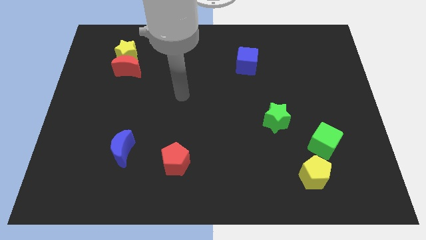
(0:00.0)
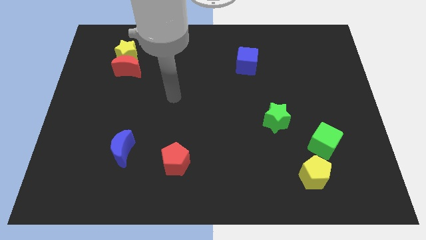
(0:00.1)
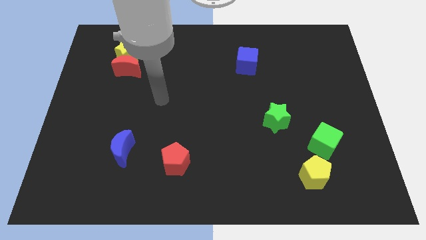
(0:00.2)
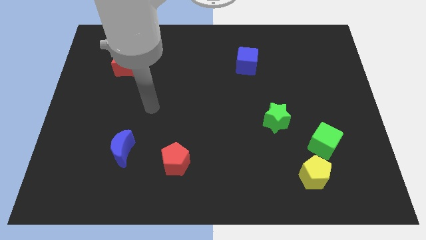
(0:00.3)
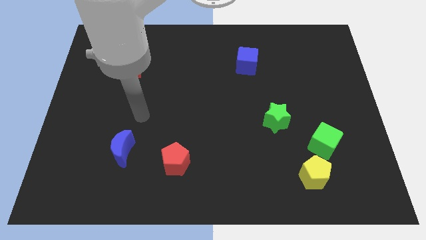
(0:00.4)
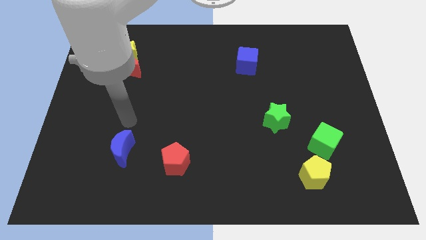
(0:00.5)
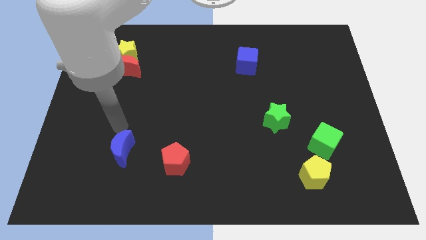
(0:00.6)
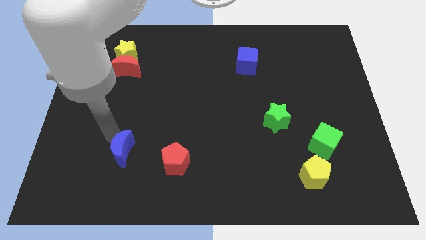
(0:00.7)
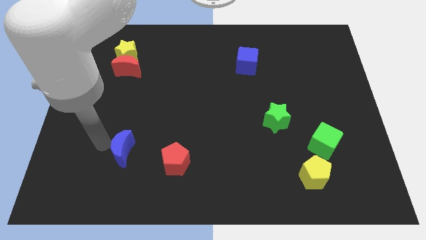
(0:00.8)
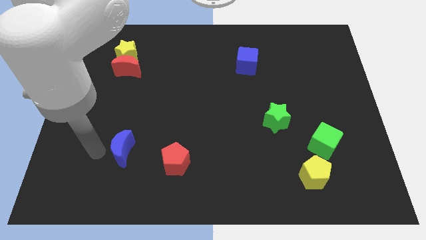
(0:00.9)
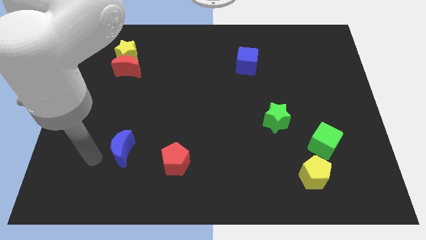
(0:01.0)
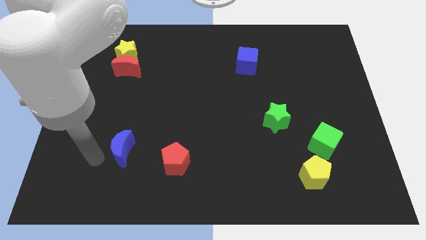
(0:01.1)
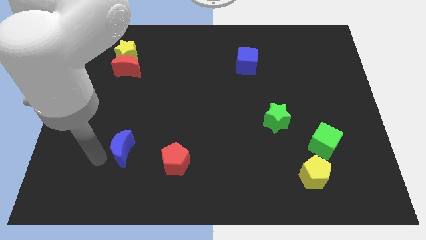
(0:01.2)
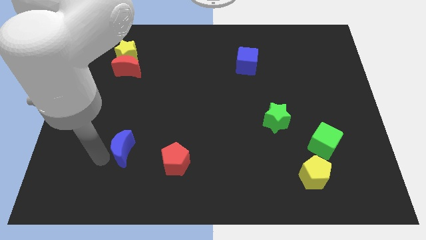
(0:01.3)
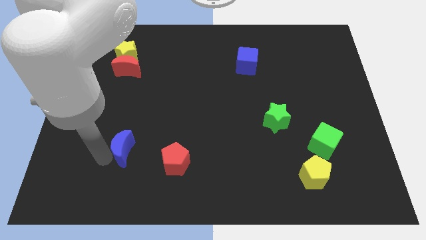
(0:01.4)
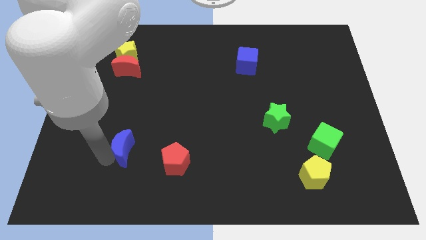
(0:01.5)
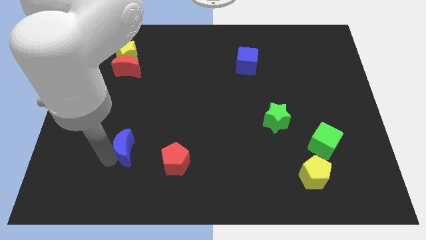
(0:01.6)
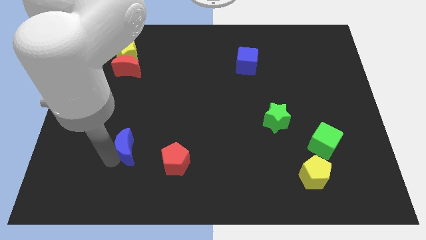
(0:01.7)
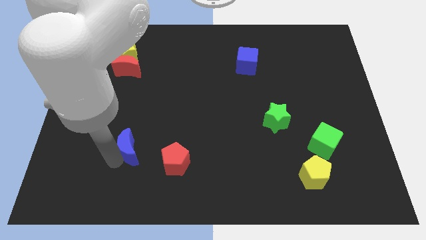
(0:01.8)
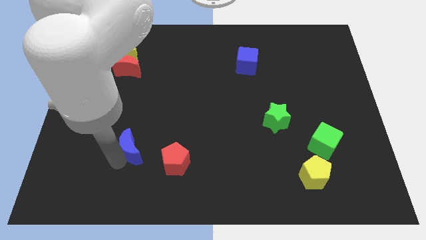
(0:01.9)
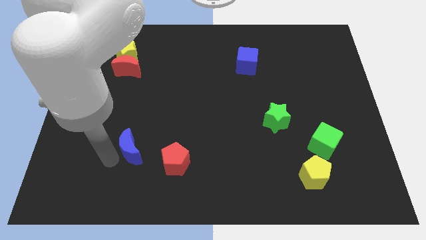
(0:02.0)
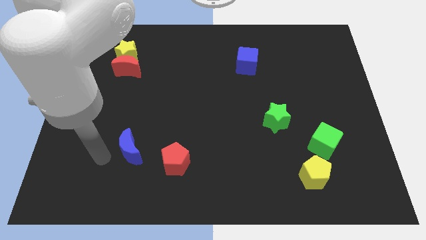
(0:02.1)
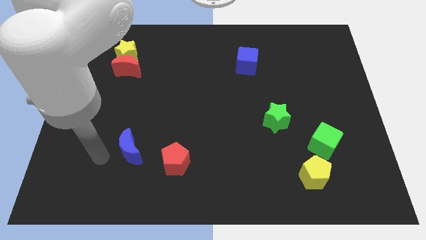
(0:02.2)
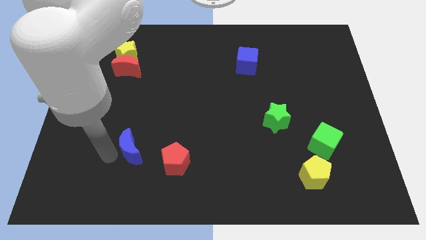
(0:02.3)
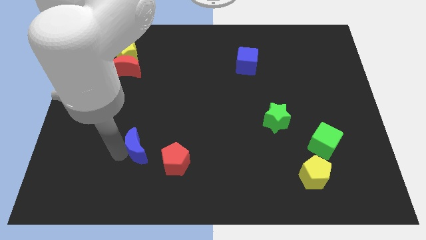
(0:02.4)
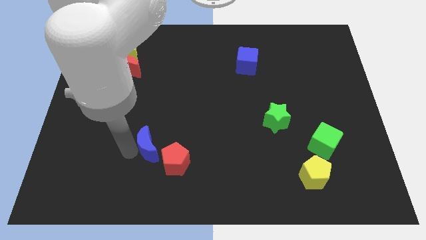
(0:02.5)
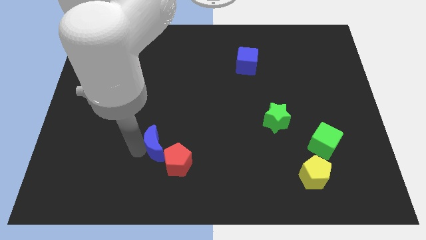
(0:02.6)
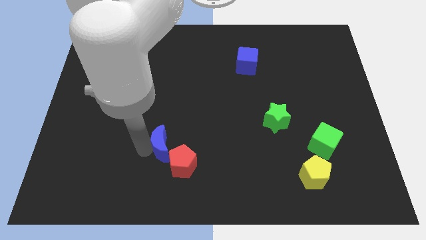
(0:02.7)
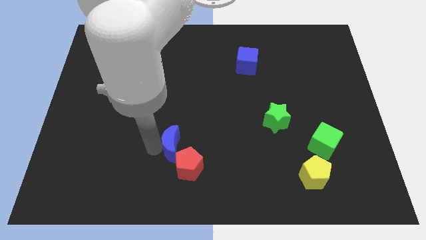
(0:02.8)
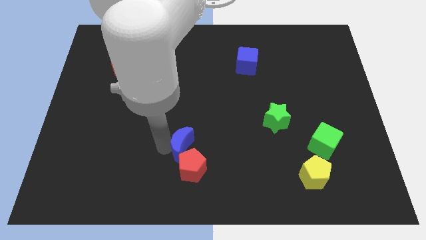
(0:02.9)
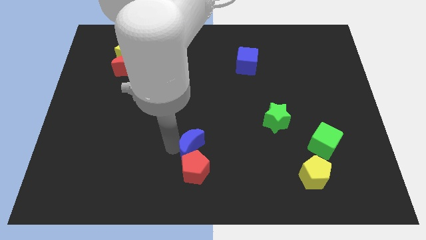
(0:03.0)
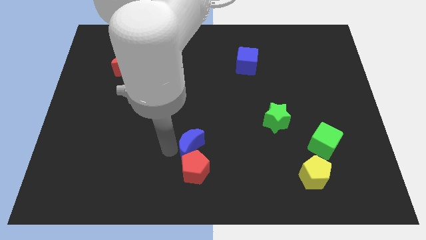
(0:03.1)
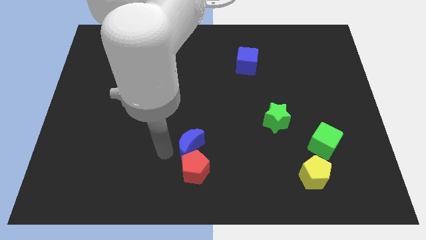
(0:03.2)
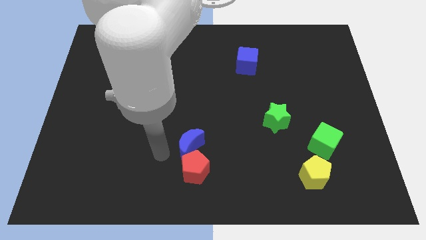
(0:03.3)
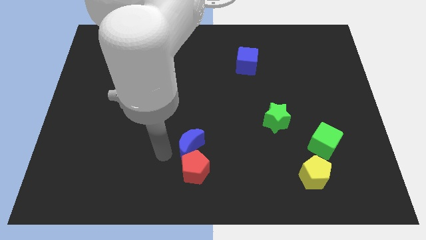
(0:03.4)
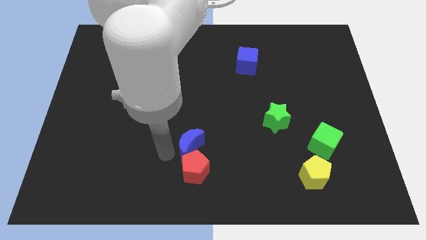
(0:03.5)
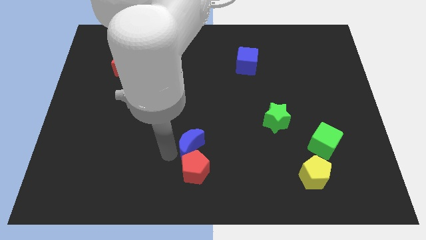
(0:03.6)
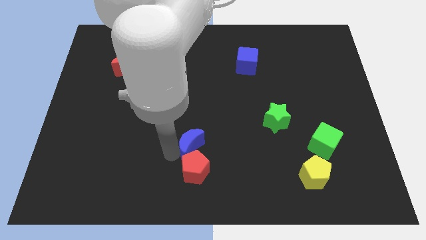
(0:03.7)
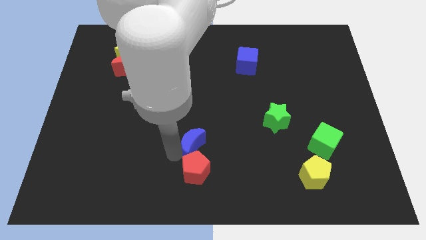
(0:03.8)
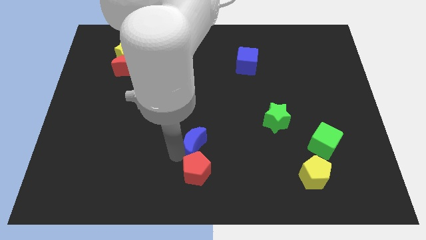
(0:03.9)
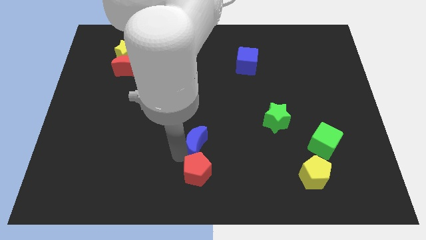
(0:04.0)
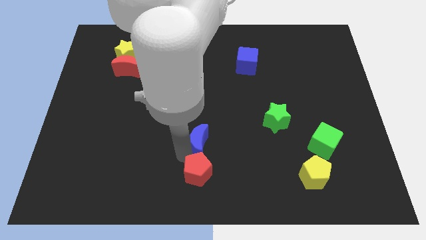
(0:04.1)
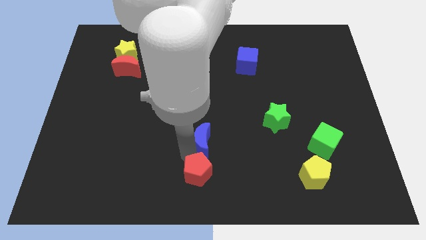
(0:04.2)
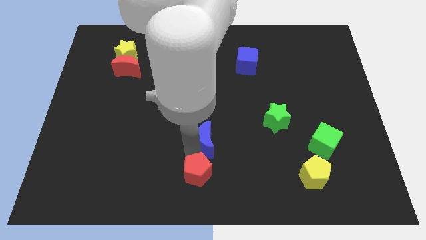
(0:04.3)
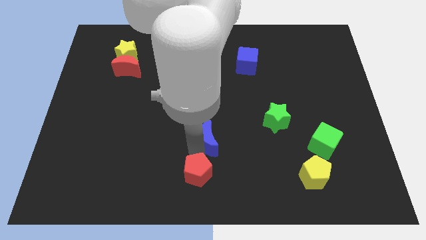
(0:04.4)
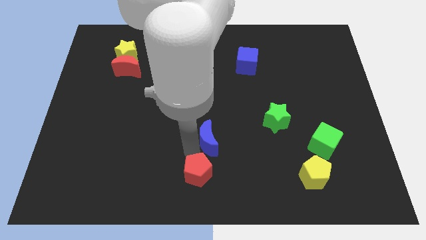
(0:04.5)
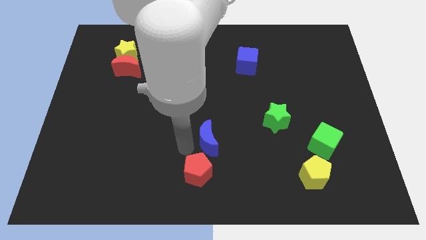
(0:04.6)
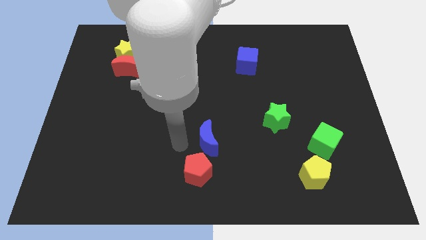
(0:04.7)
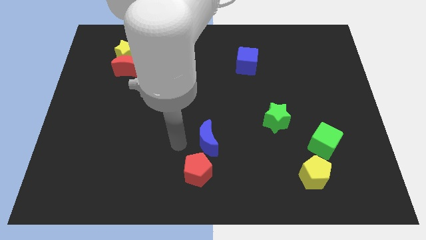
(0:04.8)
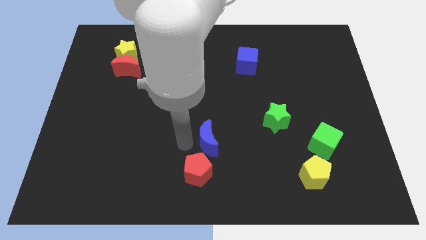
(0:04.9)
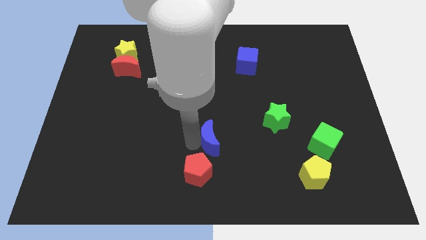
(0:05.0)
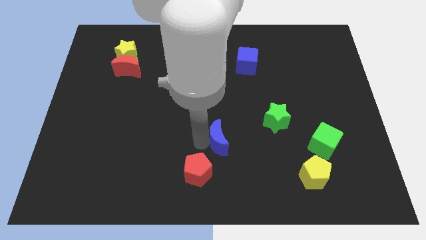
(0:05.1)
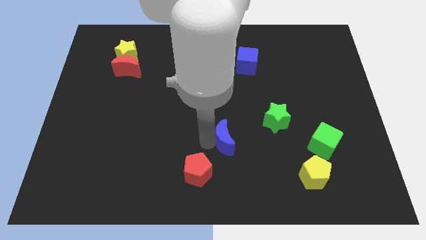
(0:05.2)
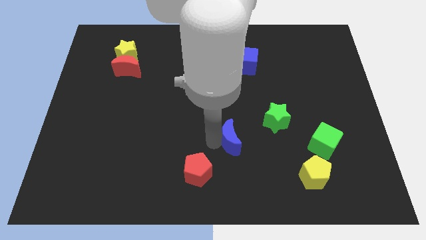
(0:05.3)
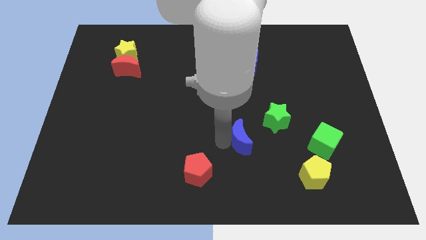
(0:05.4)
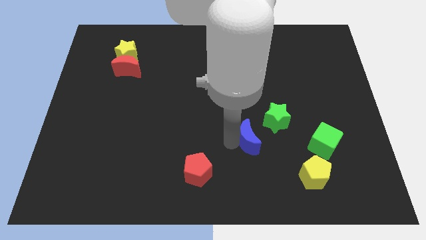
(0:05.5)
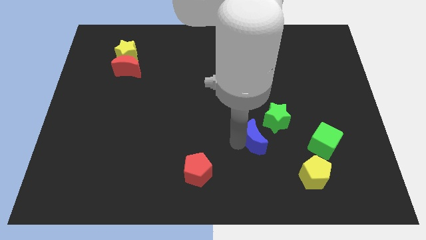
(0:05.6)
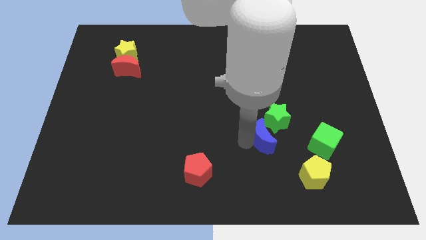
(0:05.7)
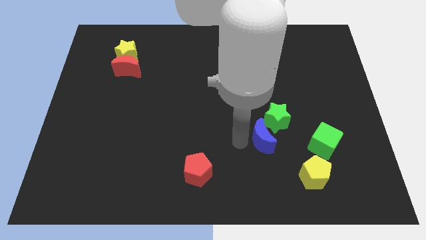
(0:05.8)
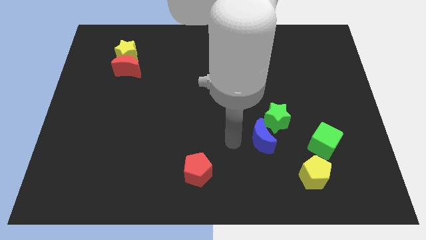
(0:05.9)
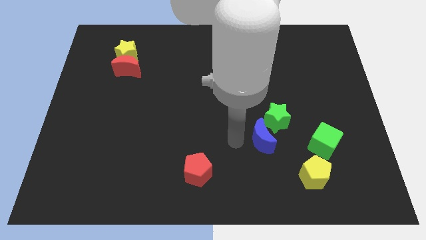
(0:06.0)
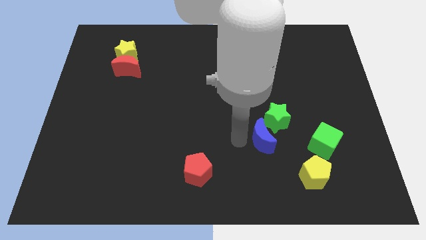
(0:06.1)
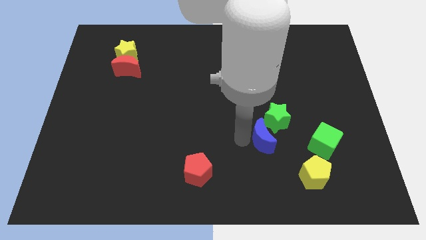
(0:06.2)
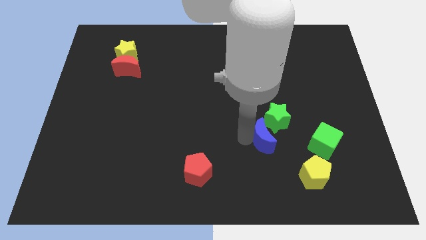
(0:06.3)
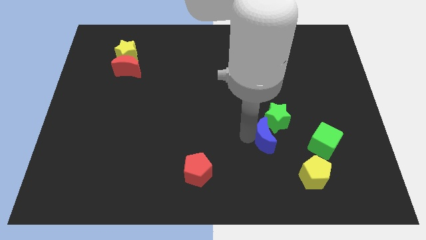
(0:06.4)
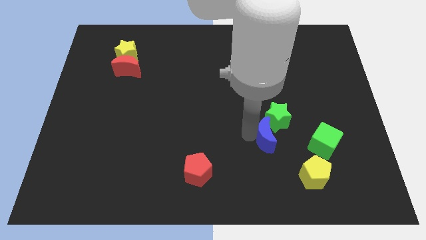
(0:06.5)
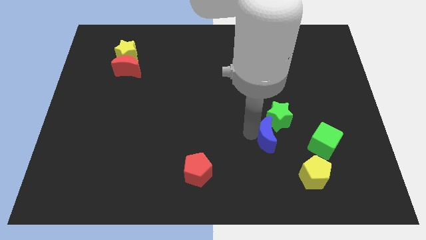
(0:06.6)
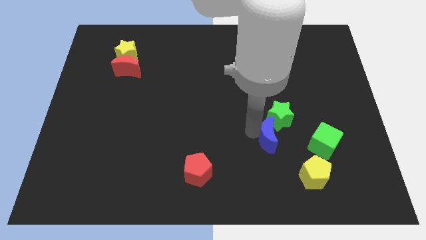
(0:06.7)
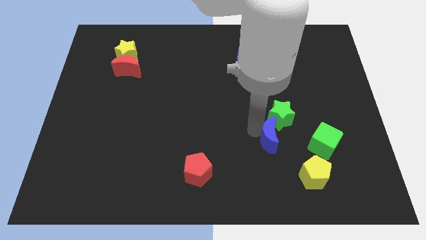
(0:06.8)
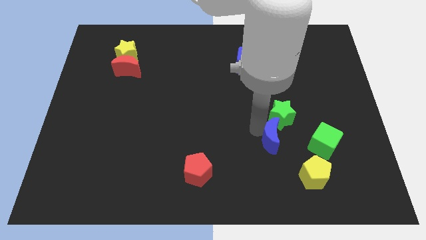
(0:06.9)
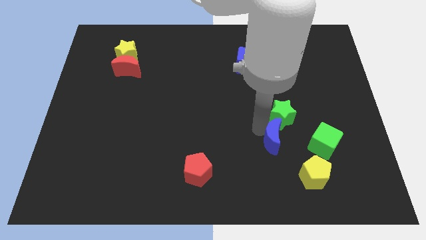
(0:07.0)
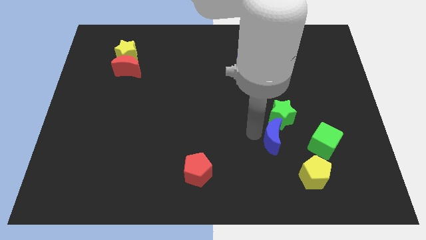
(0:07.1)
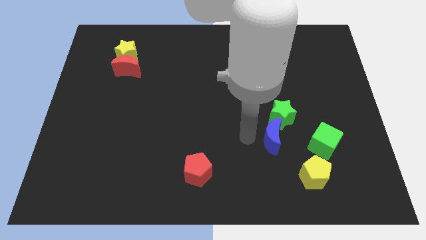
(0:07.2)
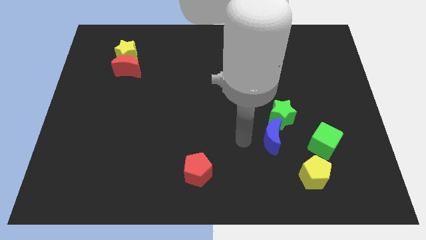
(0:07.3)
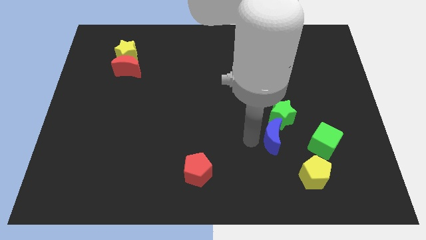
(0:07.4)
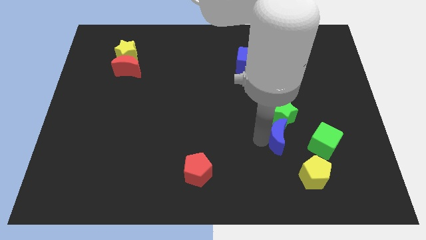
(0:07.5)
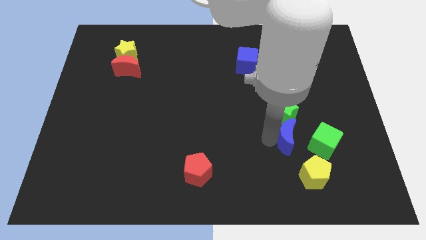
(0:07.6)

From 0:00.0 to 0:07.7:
push the blue moon to the bottom right side of the green star
